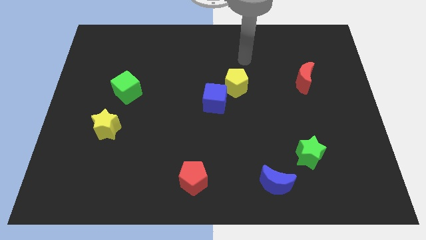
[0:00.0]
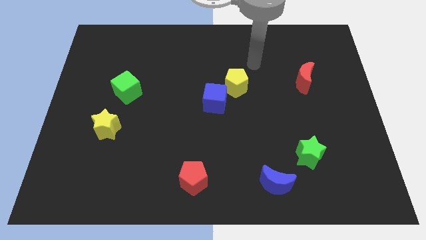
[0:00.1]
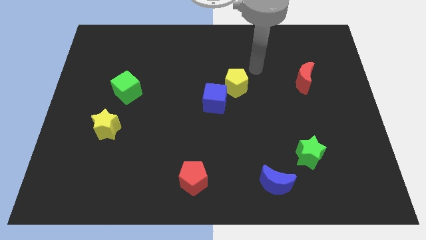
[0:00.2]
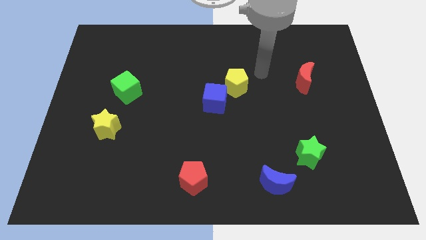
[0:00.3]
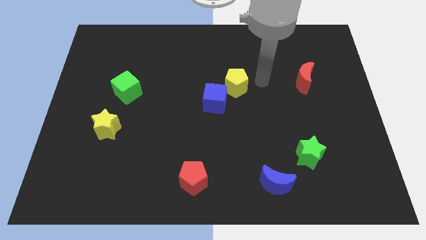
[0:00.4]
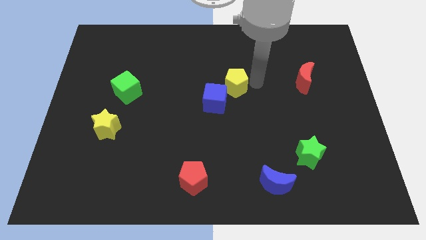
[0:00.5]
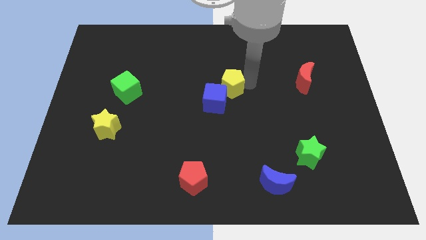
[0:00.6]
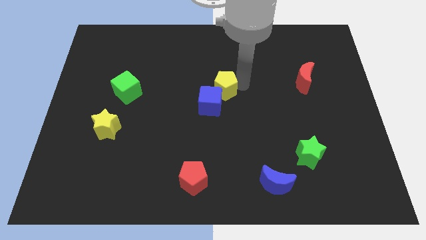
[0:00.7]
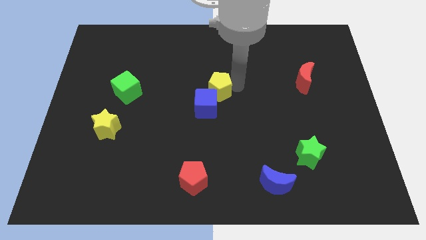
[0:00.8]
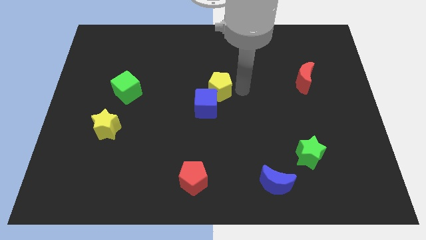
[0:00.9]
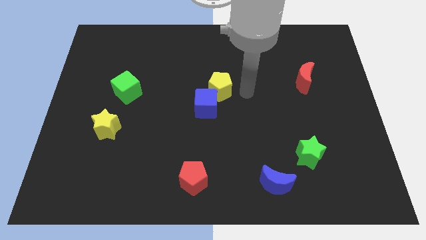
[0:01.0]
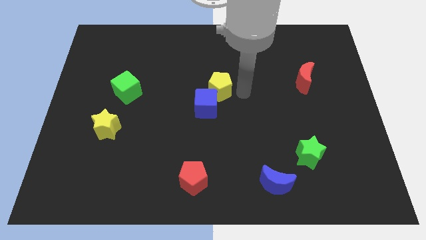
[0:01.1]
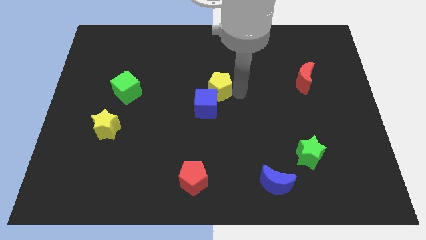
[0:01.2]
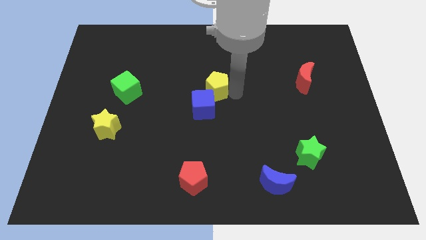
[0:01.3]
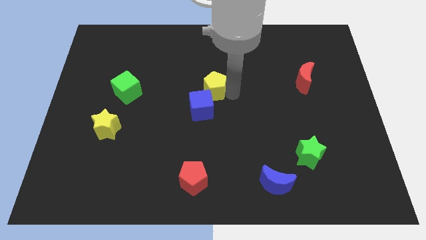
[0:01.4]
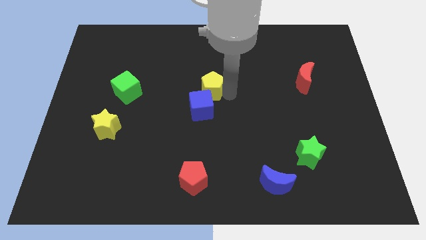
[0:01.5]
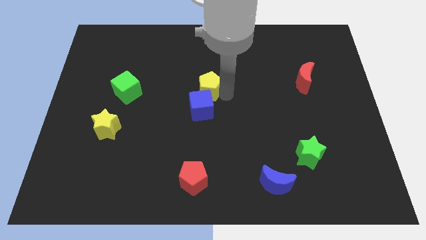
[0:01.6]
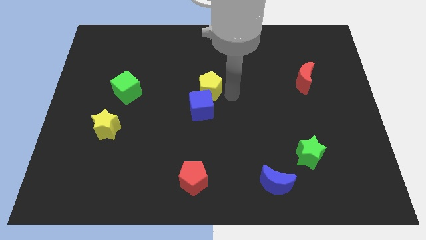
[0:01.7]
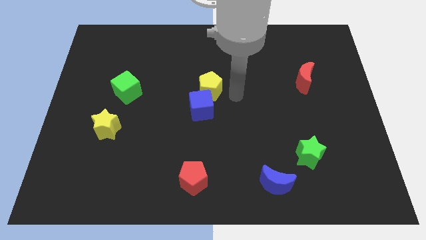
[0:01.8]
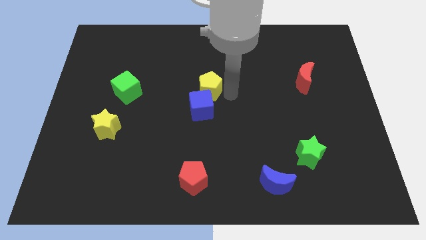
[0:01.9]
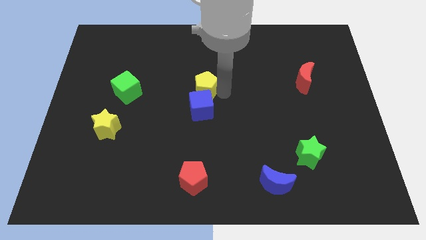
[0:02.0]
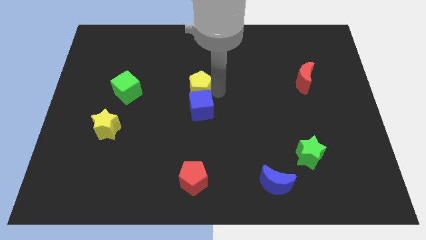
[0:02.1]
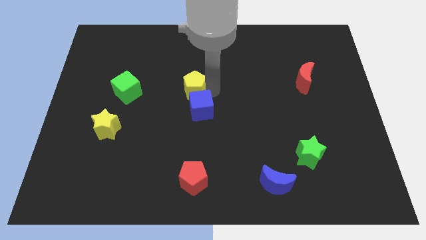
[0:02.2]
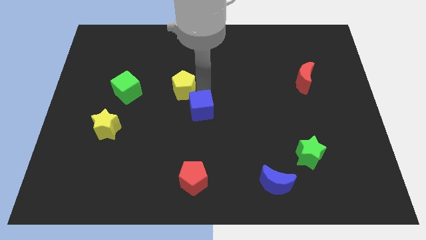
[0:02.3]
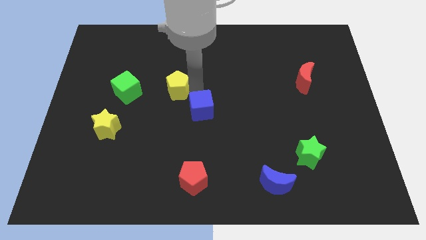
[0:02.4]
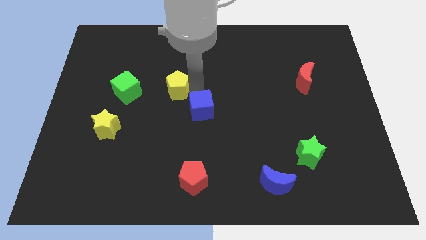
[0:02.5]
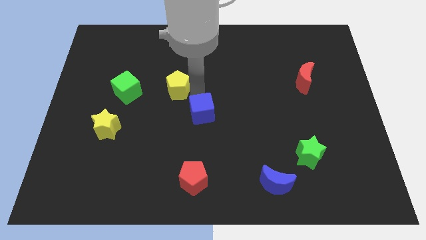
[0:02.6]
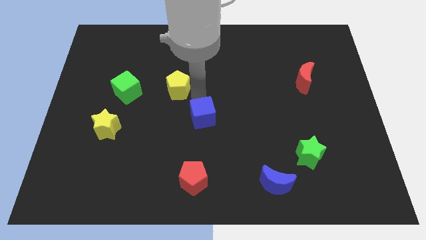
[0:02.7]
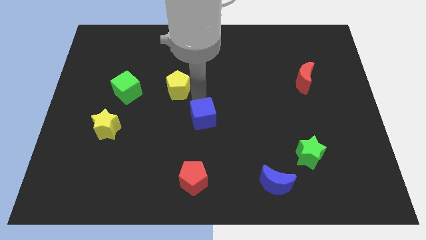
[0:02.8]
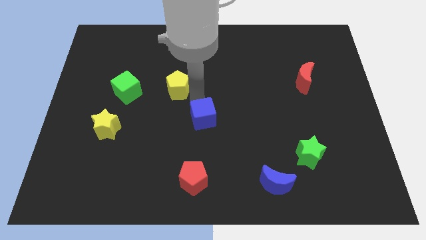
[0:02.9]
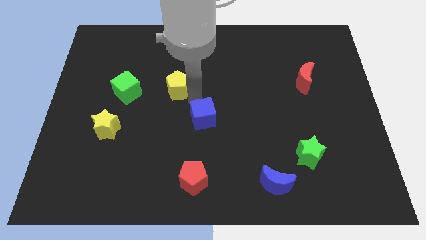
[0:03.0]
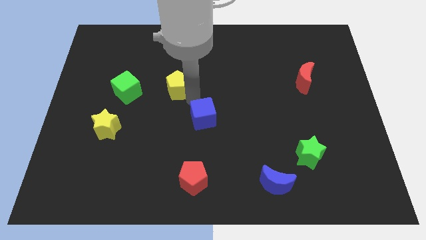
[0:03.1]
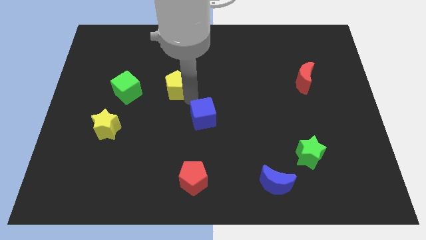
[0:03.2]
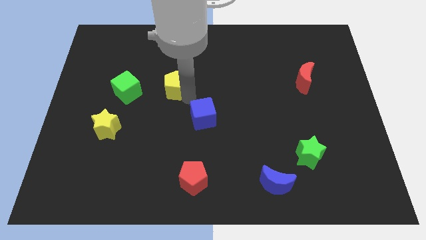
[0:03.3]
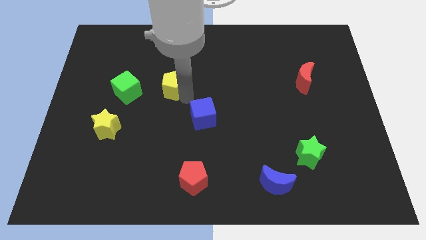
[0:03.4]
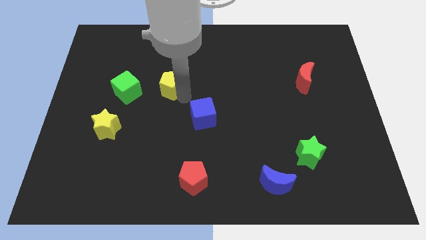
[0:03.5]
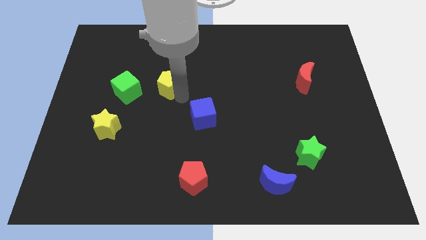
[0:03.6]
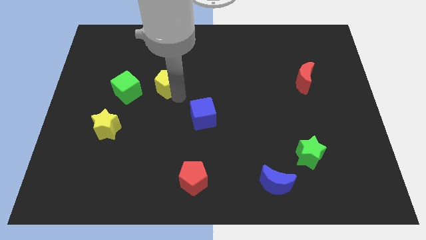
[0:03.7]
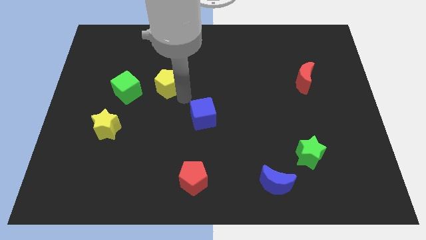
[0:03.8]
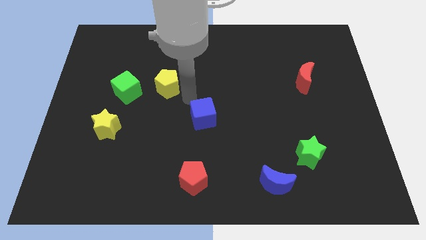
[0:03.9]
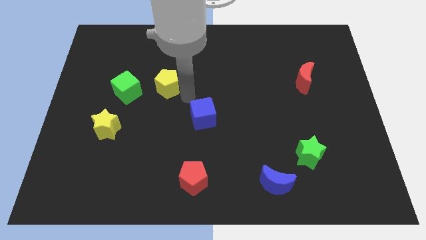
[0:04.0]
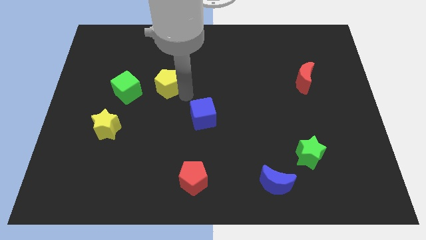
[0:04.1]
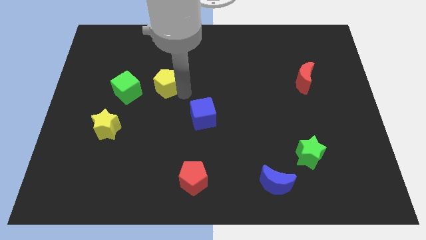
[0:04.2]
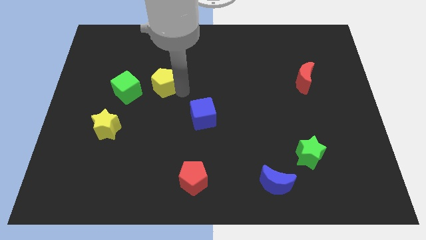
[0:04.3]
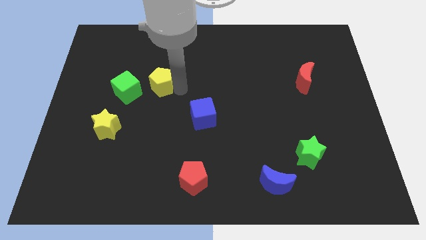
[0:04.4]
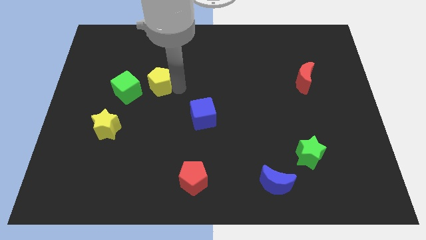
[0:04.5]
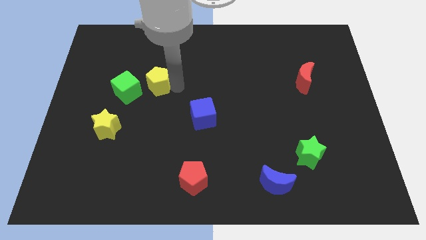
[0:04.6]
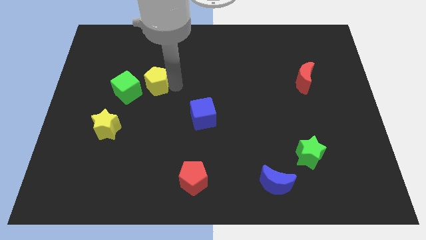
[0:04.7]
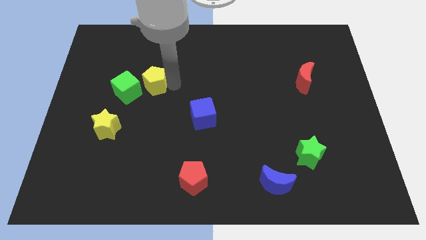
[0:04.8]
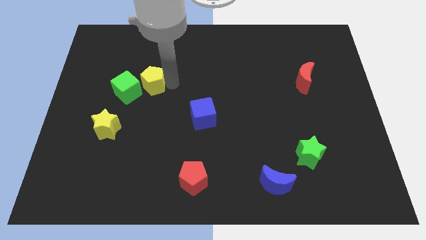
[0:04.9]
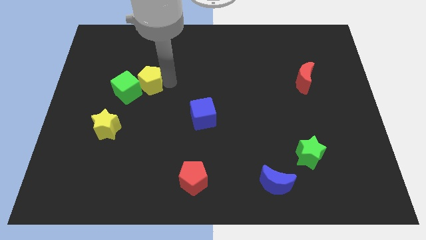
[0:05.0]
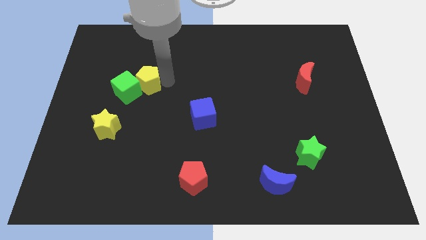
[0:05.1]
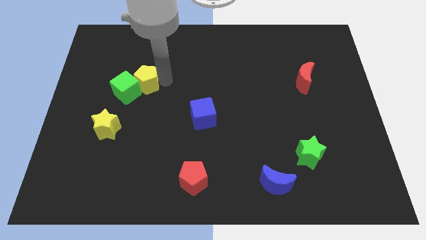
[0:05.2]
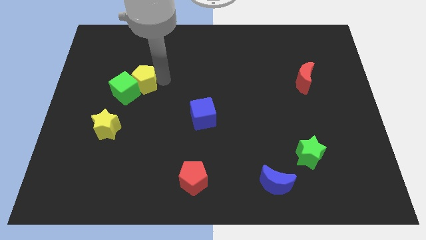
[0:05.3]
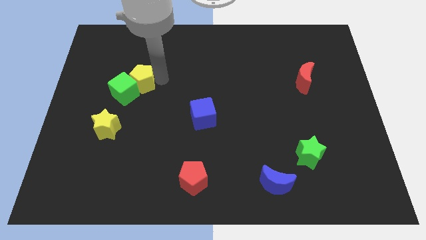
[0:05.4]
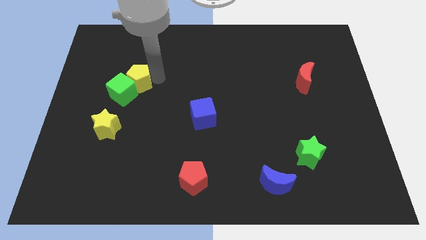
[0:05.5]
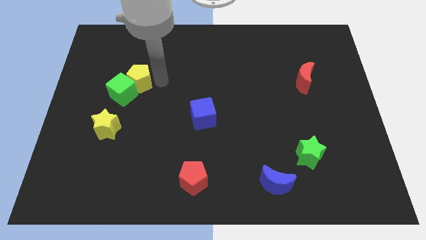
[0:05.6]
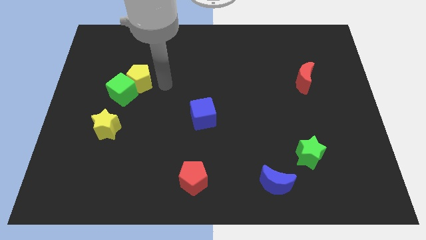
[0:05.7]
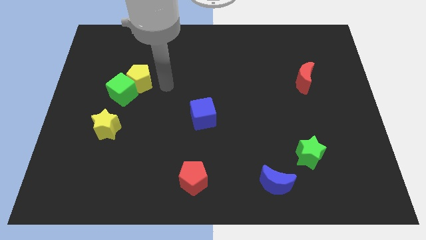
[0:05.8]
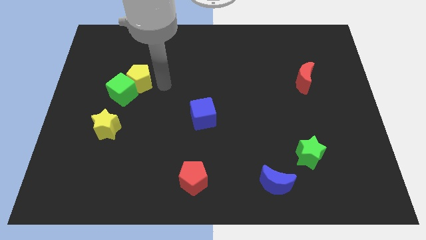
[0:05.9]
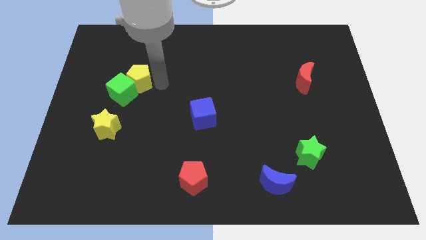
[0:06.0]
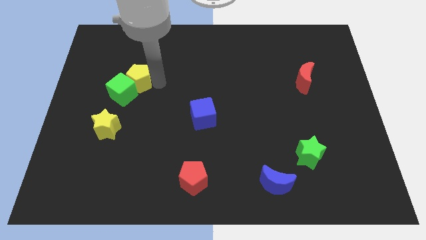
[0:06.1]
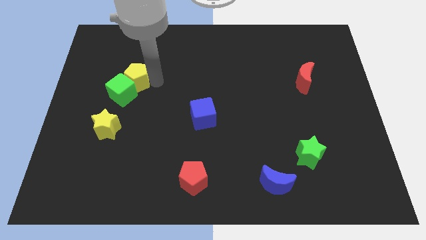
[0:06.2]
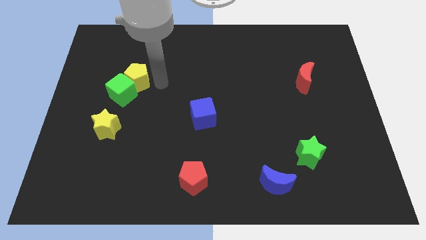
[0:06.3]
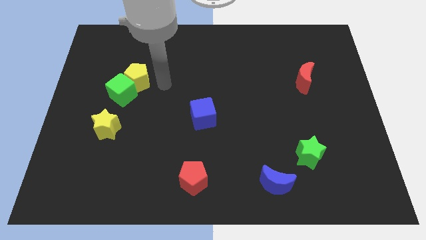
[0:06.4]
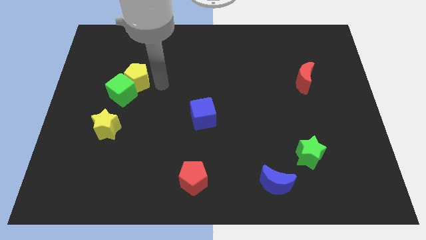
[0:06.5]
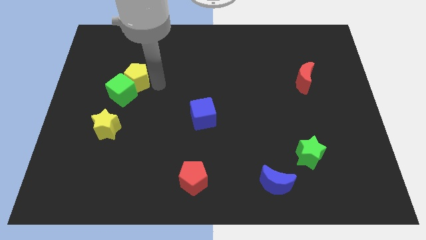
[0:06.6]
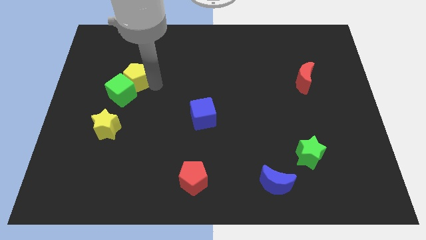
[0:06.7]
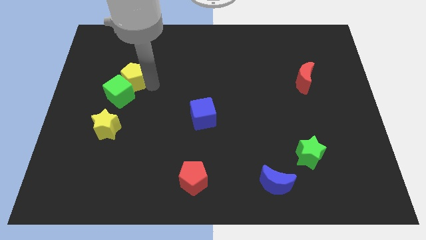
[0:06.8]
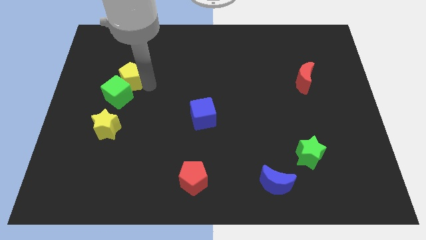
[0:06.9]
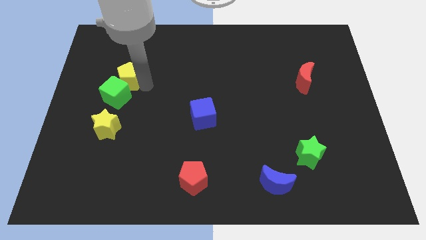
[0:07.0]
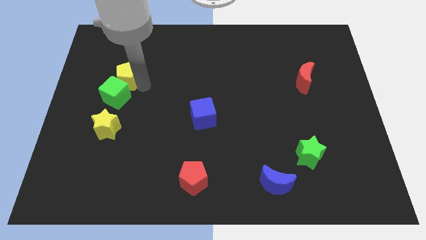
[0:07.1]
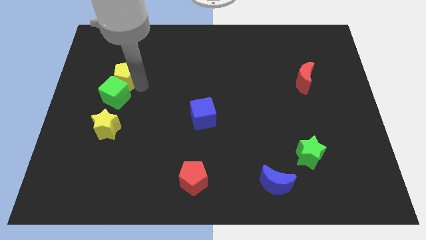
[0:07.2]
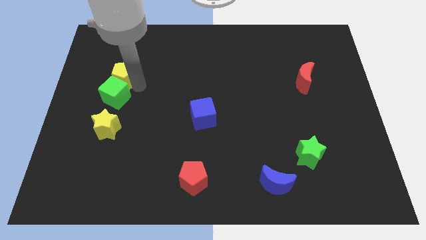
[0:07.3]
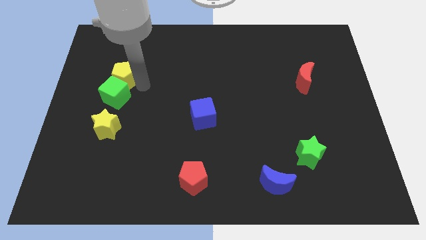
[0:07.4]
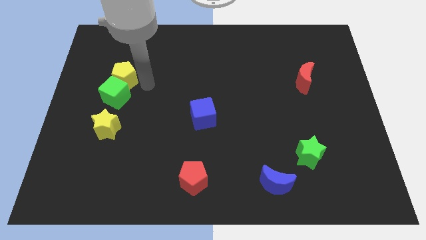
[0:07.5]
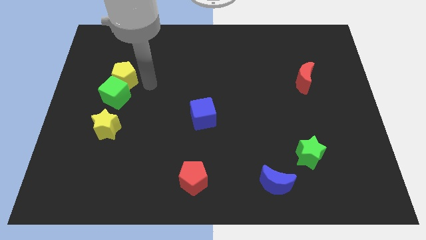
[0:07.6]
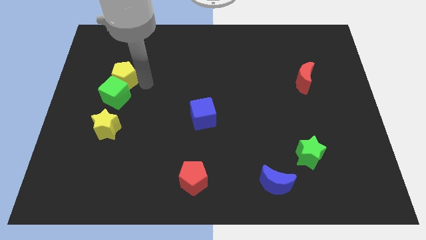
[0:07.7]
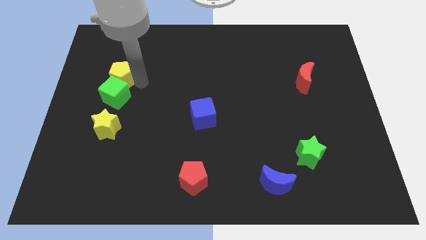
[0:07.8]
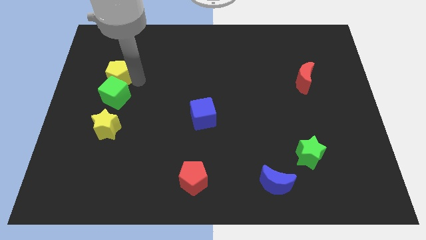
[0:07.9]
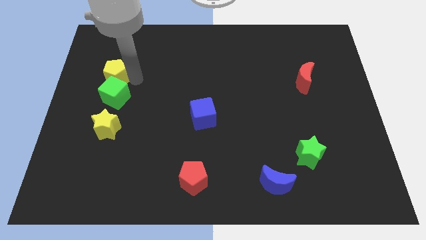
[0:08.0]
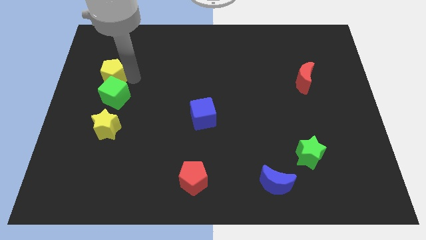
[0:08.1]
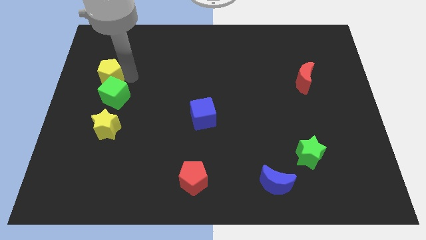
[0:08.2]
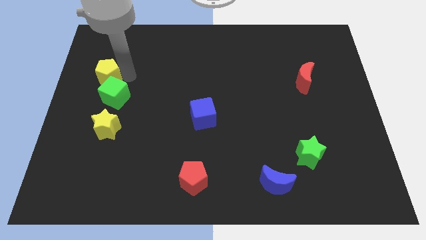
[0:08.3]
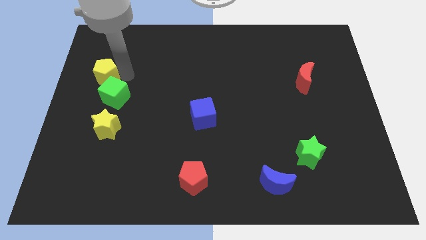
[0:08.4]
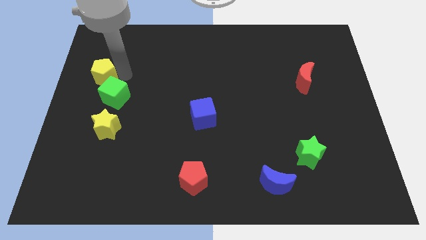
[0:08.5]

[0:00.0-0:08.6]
slide the yellow pentagon to the left side
